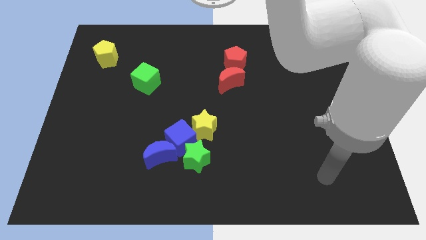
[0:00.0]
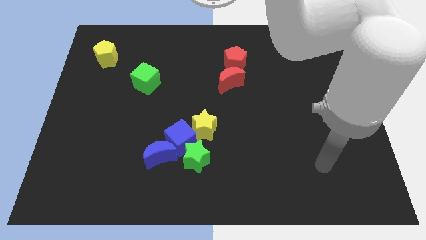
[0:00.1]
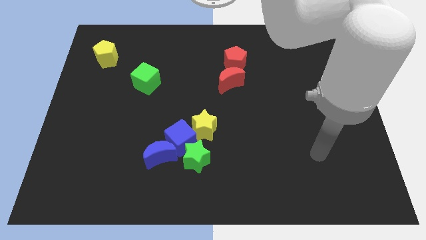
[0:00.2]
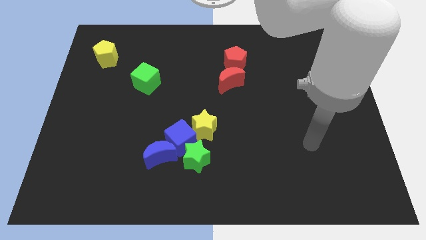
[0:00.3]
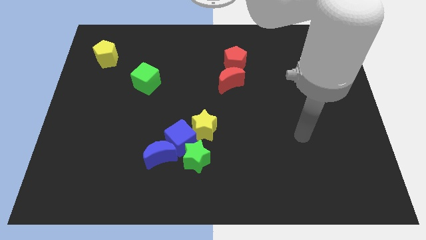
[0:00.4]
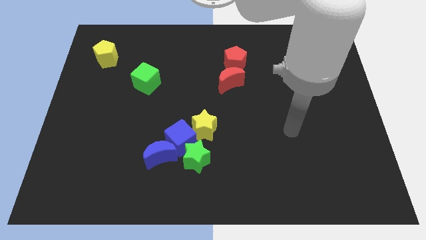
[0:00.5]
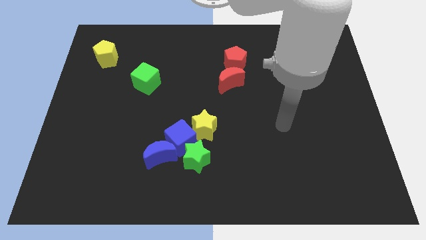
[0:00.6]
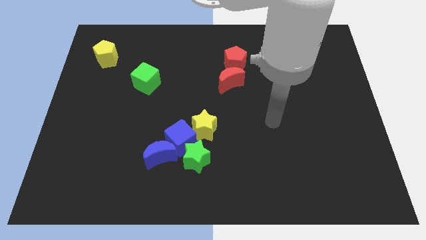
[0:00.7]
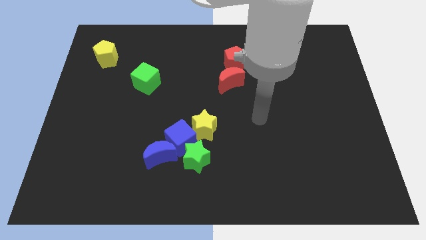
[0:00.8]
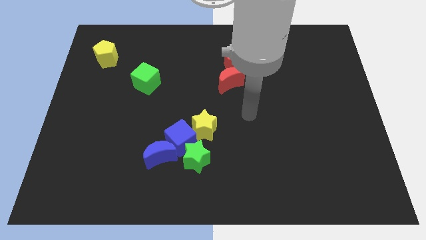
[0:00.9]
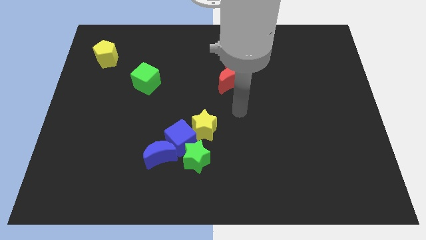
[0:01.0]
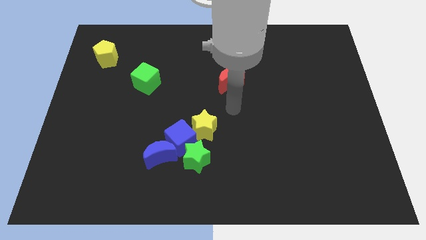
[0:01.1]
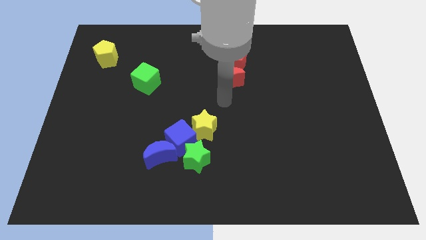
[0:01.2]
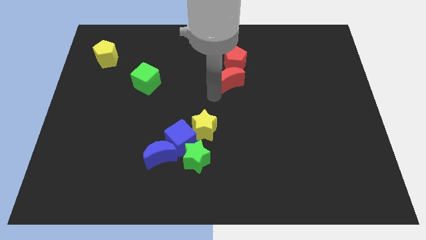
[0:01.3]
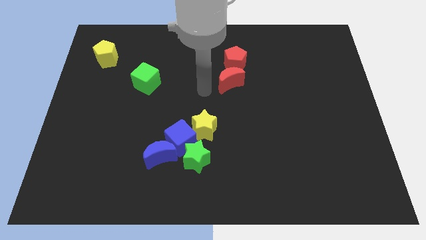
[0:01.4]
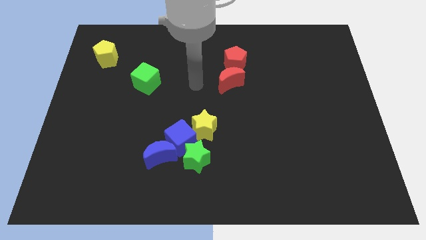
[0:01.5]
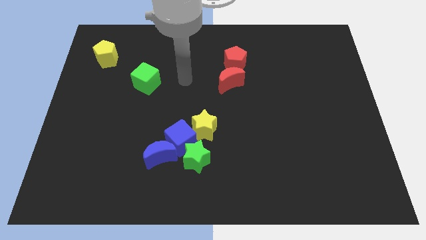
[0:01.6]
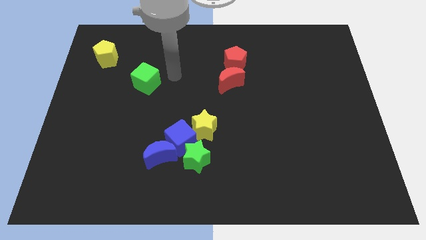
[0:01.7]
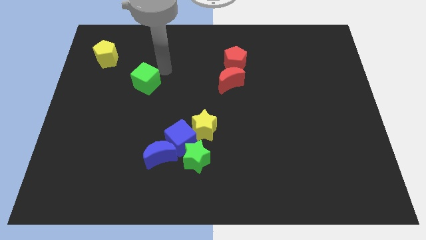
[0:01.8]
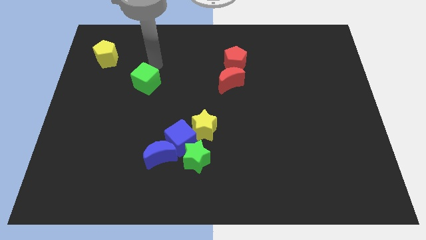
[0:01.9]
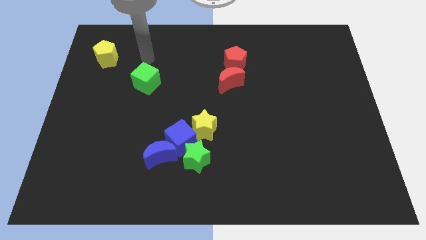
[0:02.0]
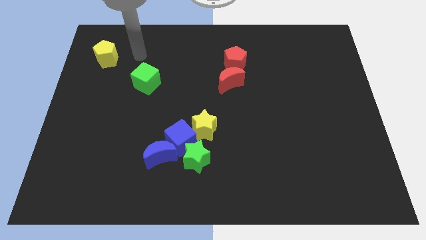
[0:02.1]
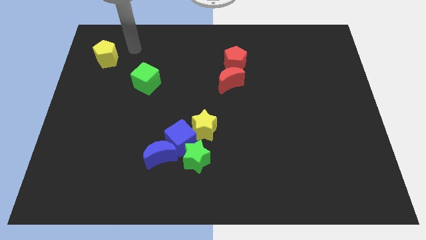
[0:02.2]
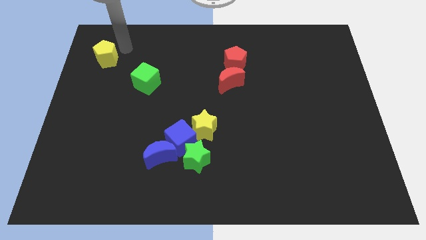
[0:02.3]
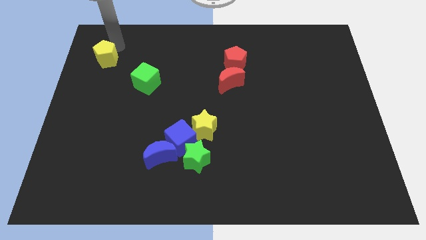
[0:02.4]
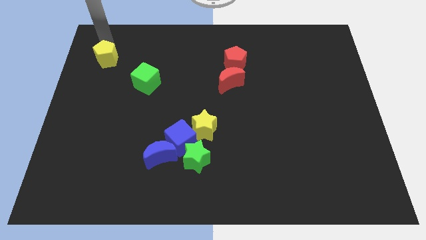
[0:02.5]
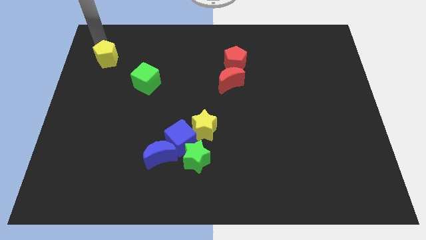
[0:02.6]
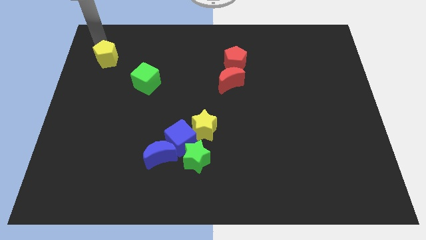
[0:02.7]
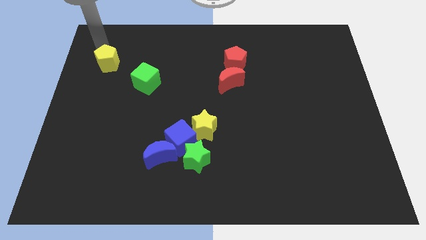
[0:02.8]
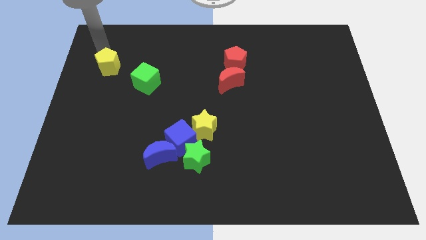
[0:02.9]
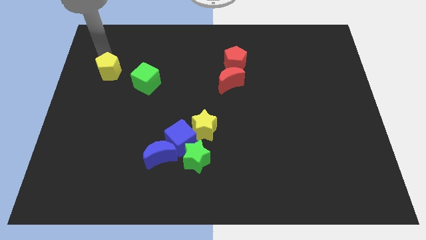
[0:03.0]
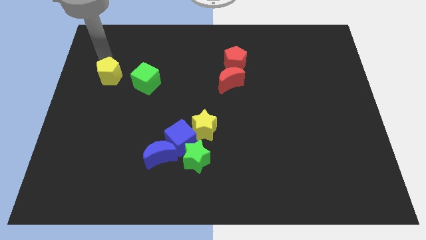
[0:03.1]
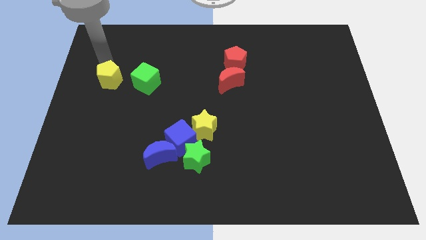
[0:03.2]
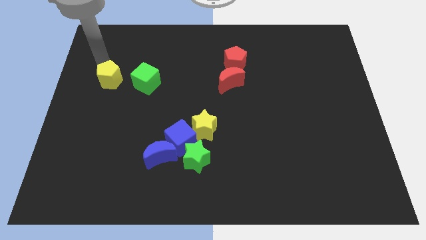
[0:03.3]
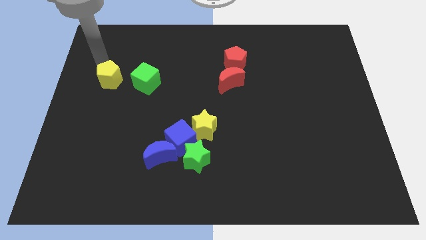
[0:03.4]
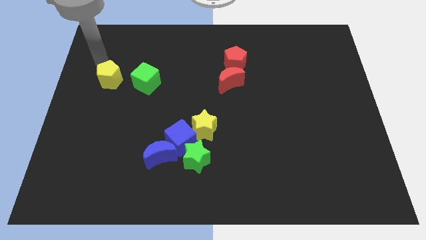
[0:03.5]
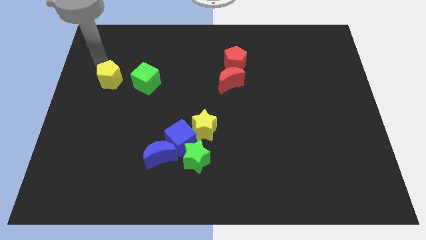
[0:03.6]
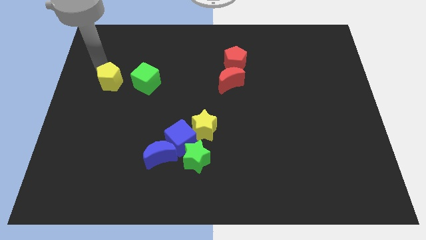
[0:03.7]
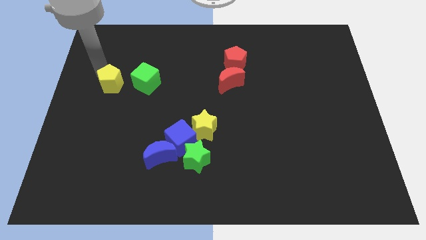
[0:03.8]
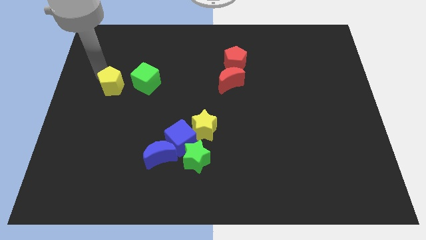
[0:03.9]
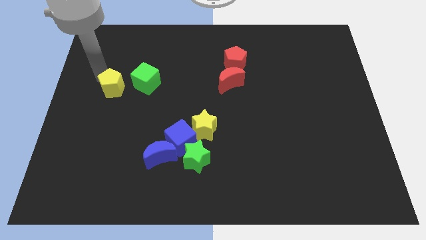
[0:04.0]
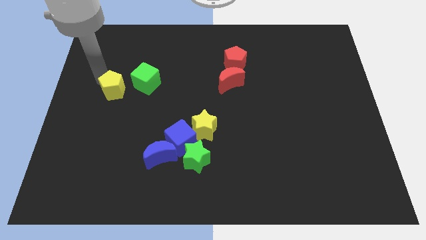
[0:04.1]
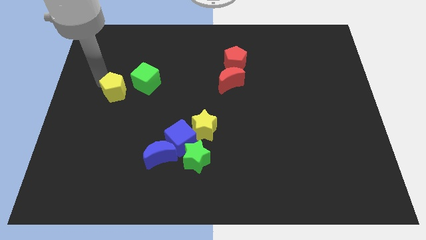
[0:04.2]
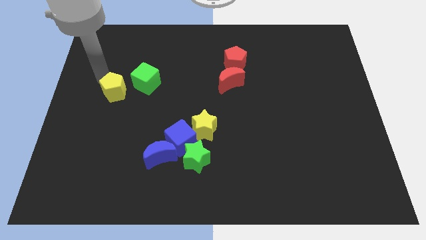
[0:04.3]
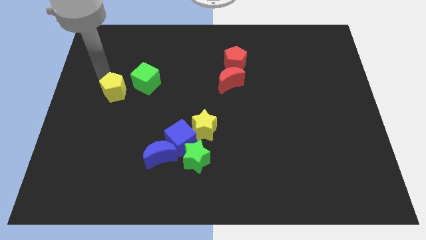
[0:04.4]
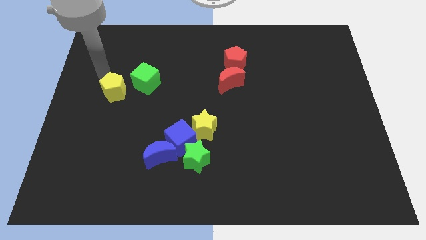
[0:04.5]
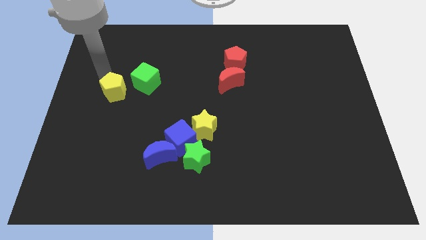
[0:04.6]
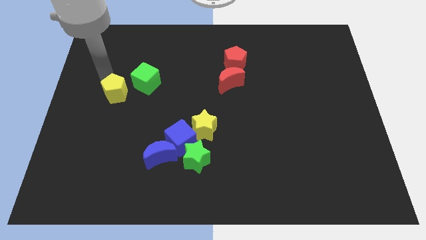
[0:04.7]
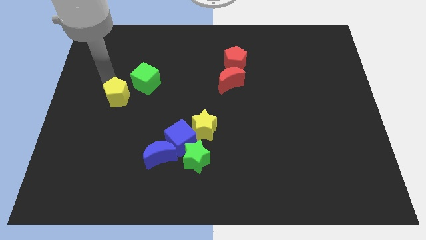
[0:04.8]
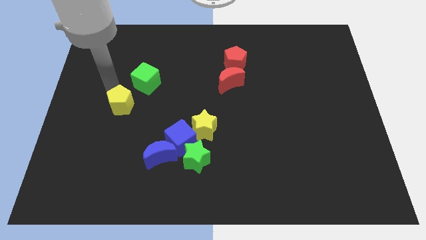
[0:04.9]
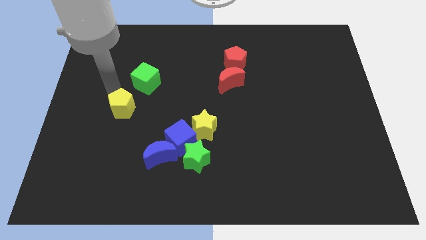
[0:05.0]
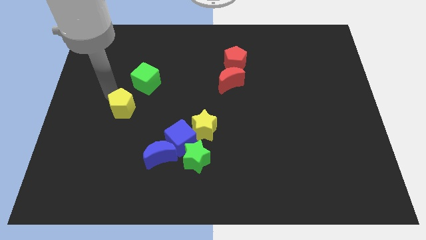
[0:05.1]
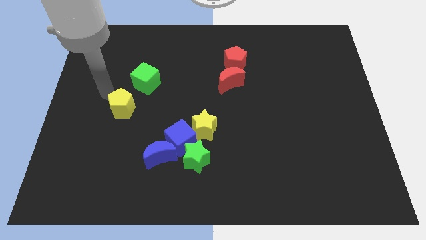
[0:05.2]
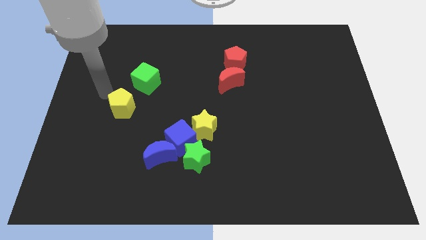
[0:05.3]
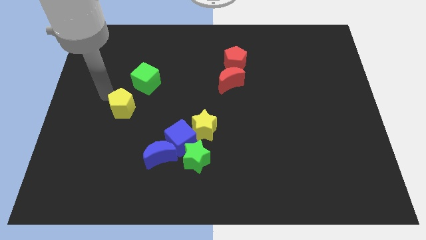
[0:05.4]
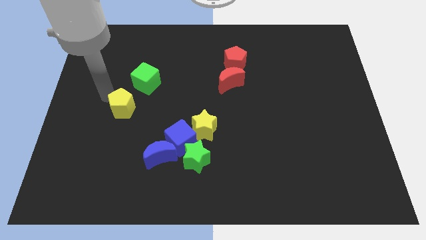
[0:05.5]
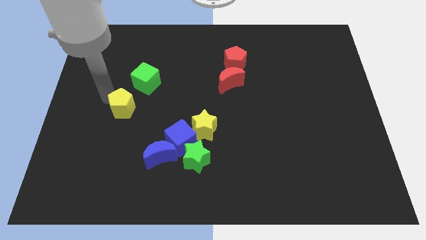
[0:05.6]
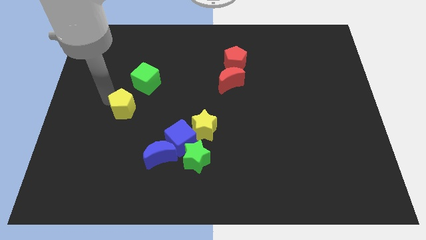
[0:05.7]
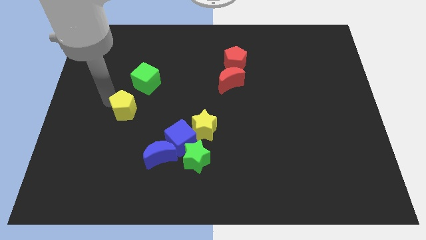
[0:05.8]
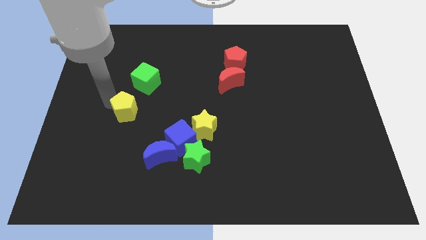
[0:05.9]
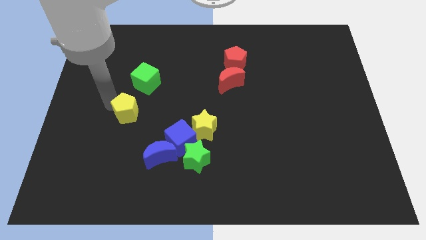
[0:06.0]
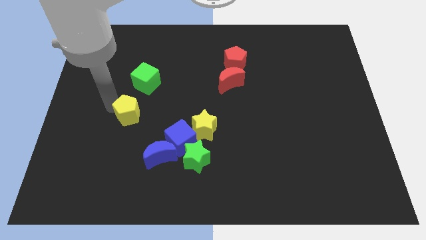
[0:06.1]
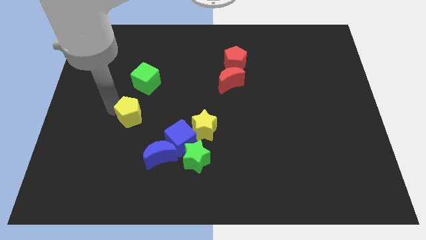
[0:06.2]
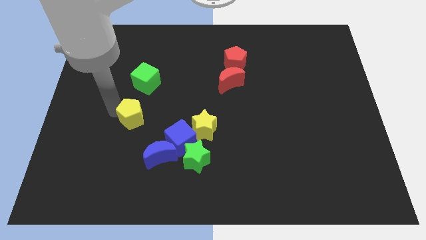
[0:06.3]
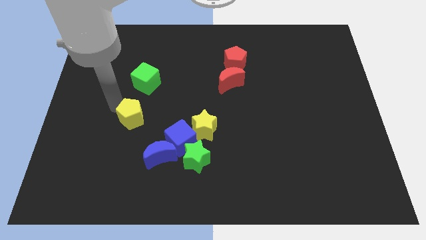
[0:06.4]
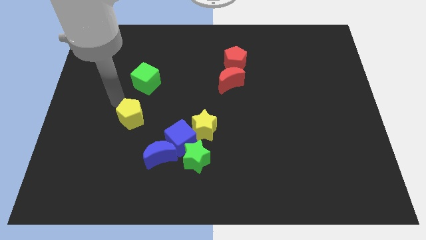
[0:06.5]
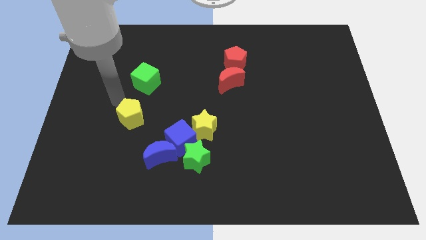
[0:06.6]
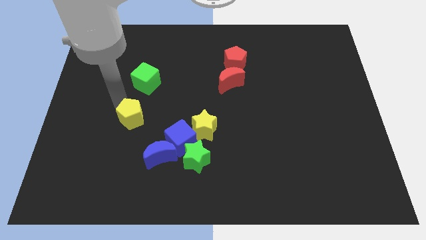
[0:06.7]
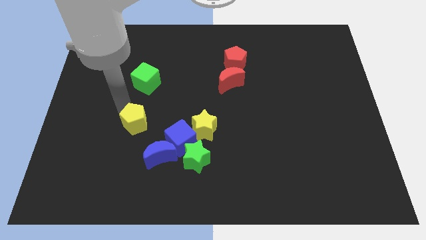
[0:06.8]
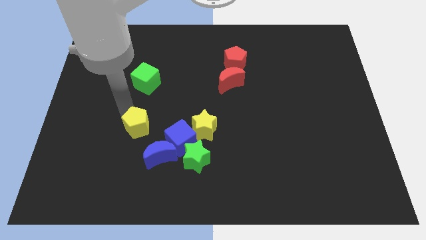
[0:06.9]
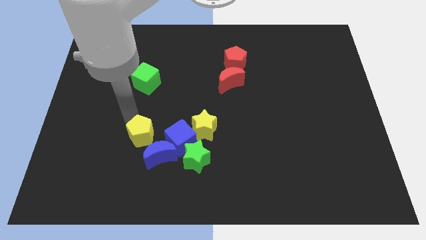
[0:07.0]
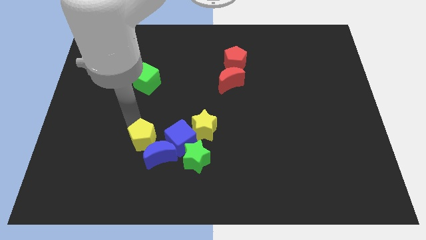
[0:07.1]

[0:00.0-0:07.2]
slide the yellow pentagon towards the blue moon
